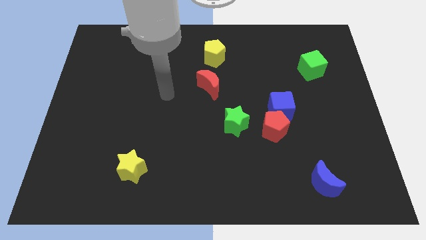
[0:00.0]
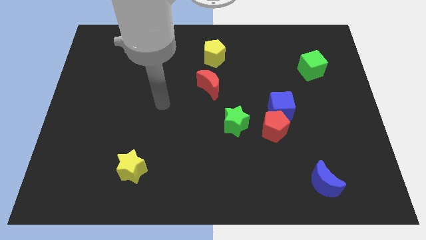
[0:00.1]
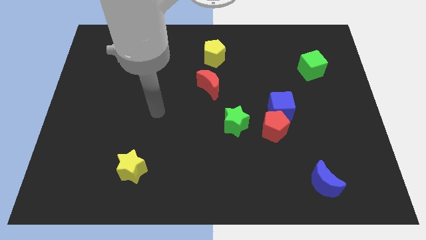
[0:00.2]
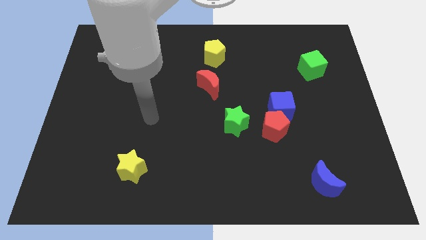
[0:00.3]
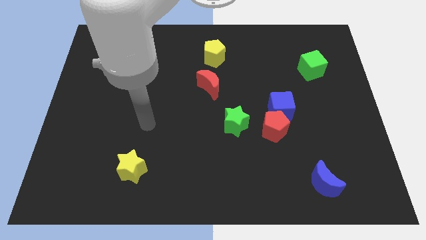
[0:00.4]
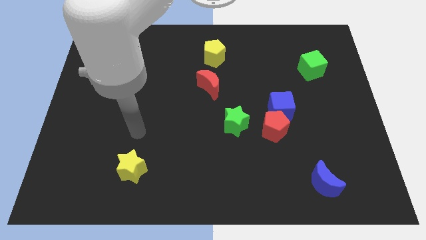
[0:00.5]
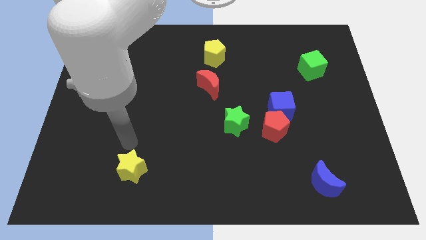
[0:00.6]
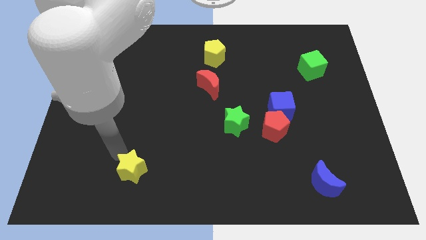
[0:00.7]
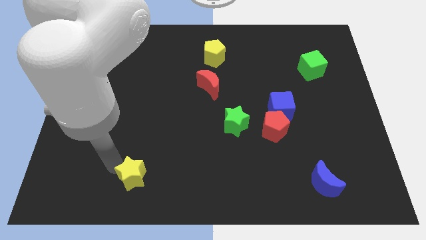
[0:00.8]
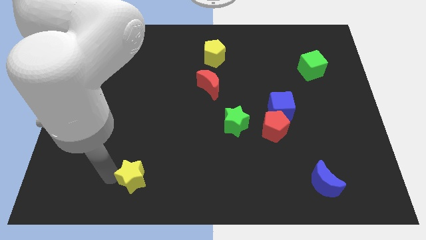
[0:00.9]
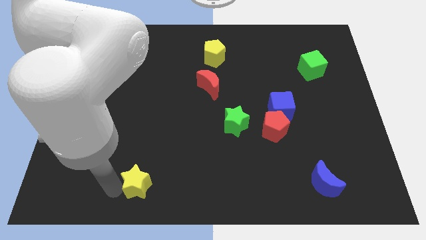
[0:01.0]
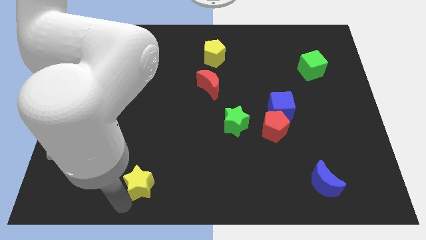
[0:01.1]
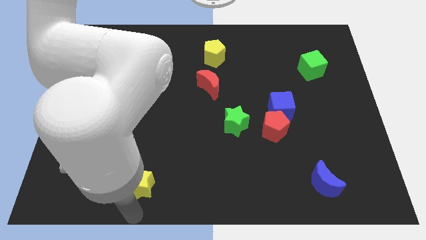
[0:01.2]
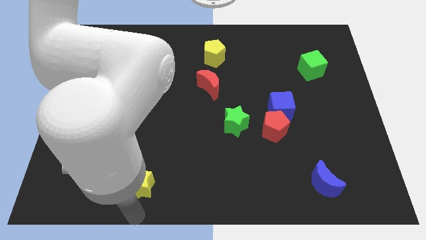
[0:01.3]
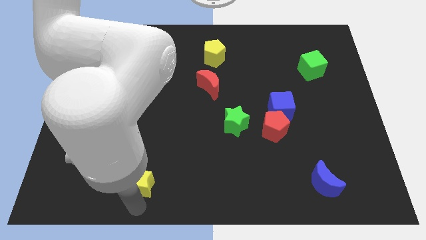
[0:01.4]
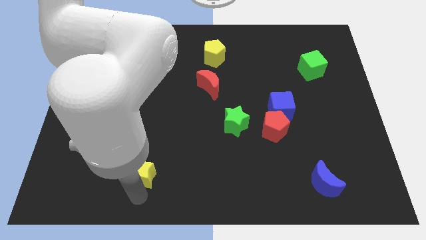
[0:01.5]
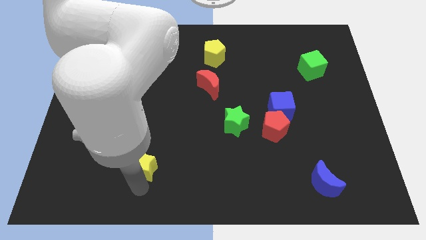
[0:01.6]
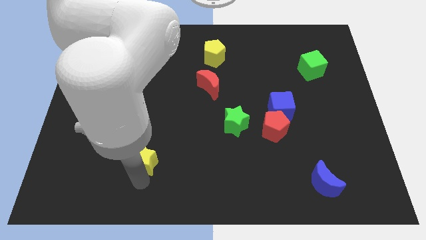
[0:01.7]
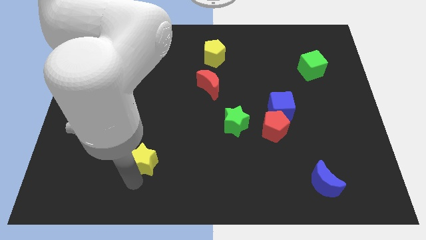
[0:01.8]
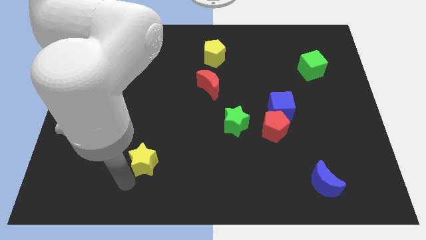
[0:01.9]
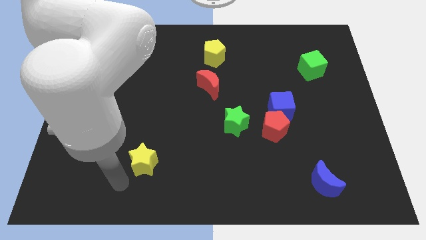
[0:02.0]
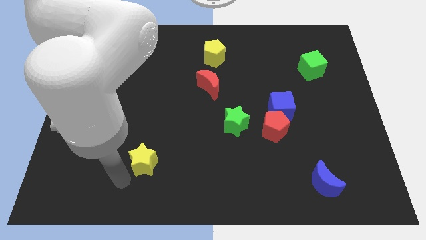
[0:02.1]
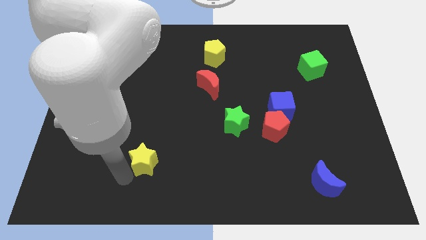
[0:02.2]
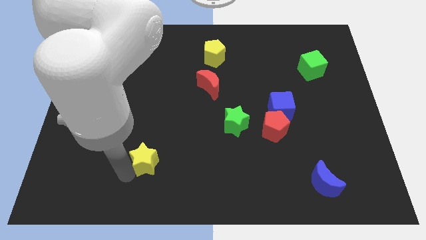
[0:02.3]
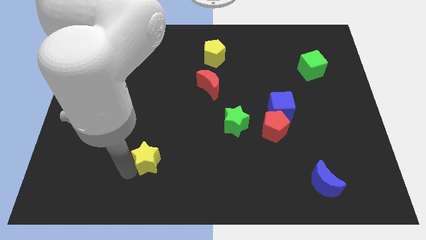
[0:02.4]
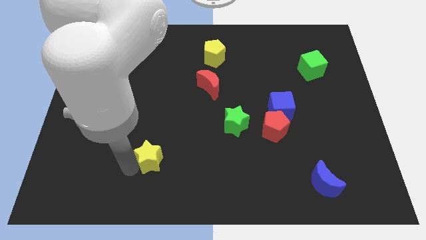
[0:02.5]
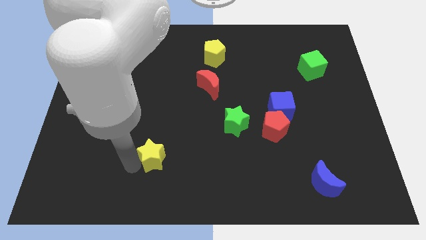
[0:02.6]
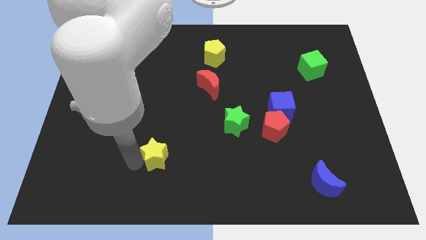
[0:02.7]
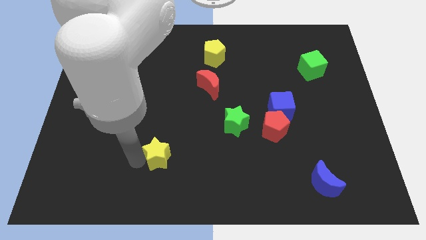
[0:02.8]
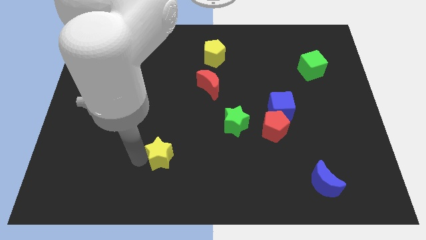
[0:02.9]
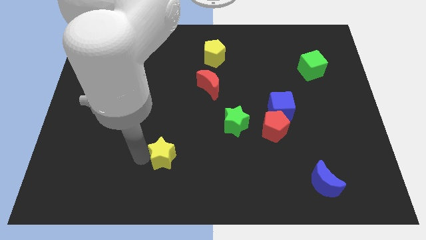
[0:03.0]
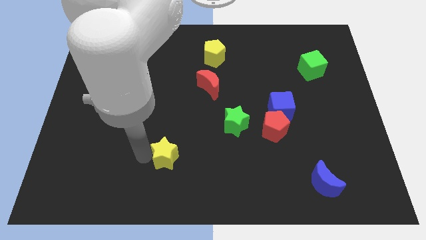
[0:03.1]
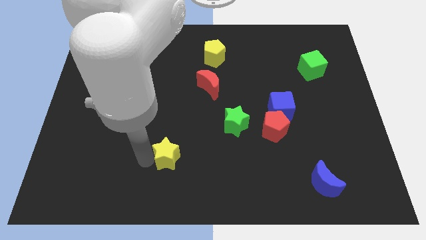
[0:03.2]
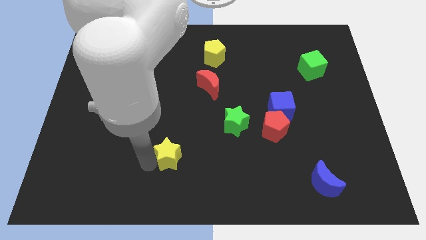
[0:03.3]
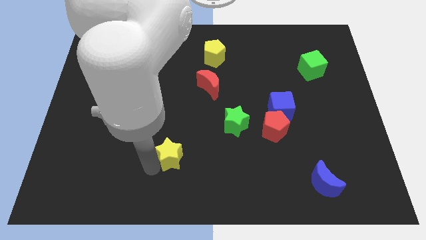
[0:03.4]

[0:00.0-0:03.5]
push the yellow star a little bit up and to the right diagonally

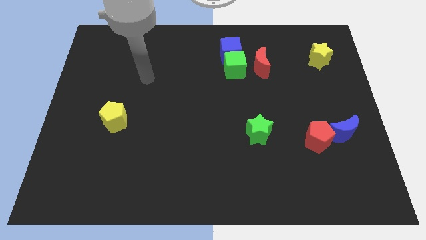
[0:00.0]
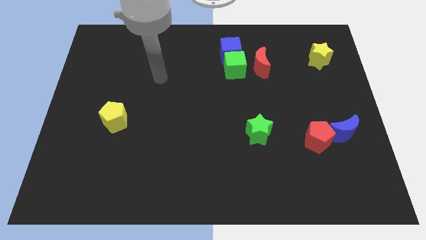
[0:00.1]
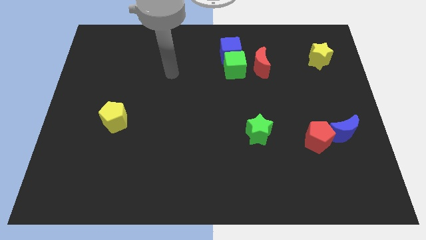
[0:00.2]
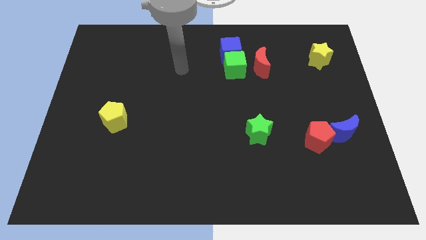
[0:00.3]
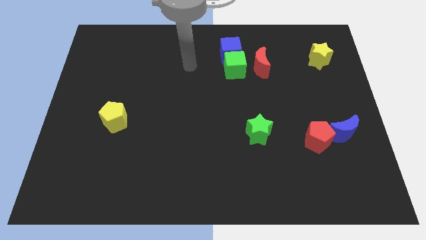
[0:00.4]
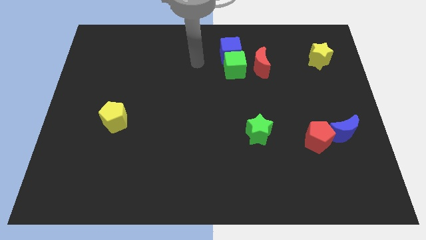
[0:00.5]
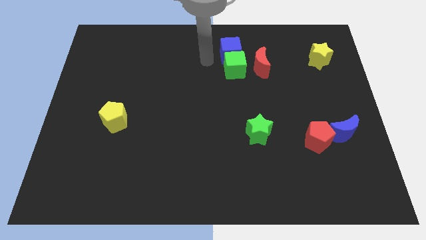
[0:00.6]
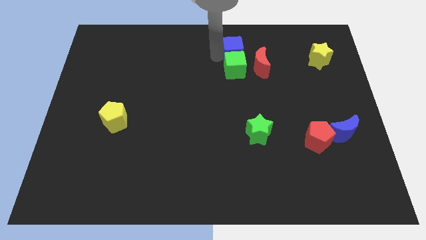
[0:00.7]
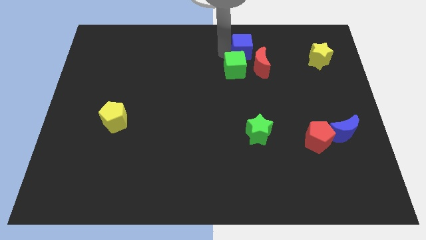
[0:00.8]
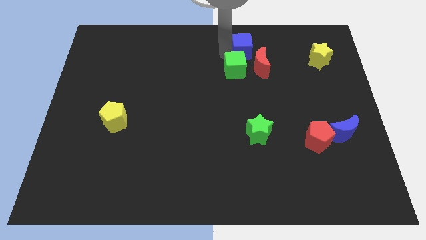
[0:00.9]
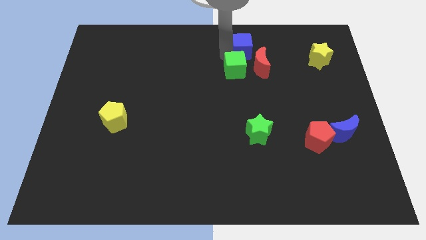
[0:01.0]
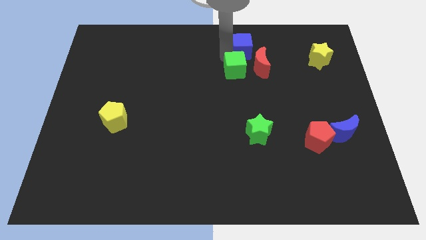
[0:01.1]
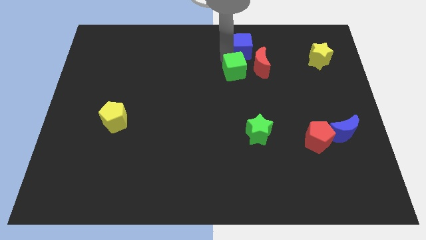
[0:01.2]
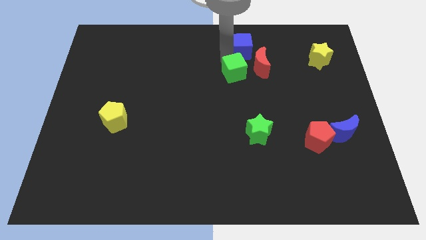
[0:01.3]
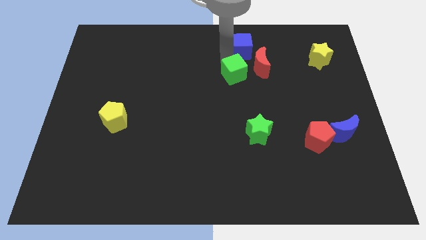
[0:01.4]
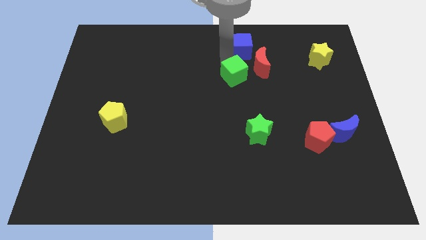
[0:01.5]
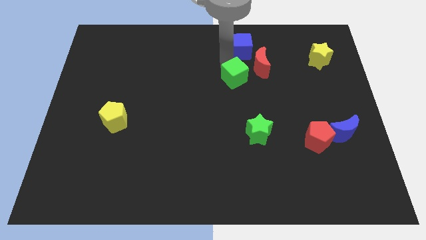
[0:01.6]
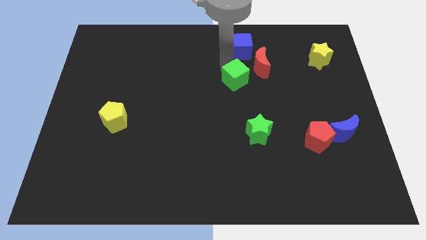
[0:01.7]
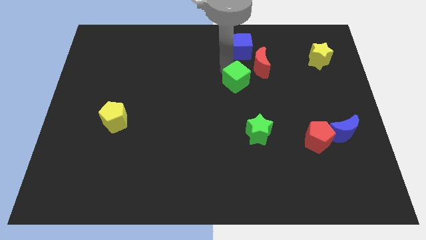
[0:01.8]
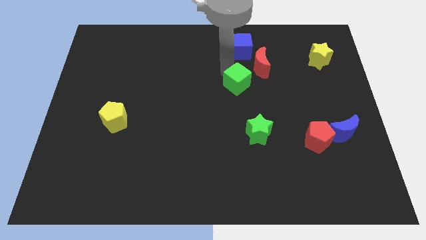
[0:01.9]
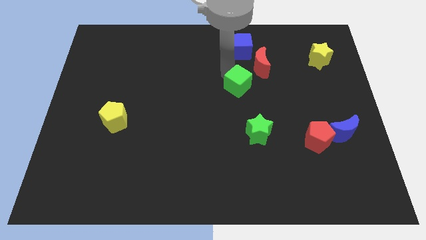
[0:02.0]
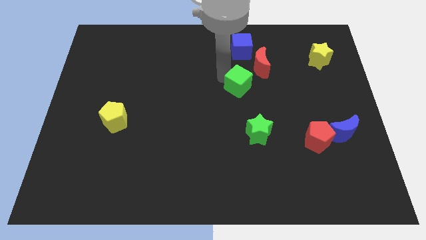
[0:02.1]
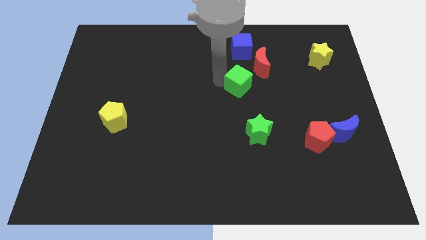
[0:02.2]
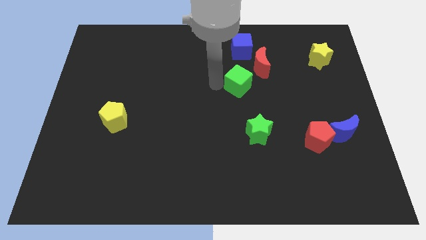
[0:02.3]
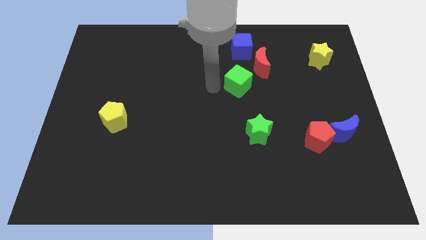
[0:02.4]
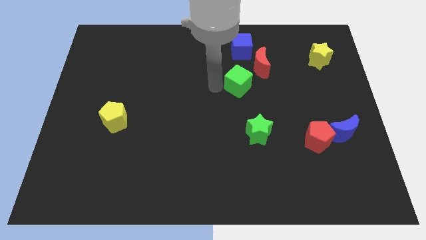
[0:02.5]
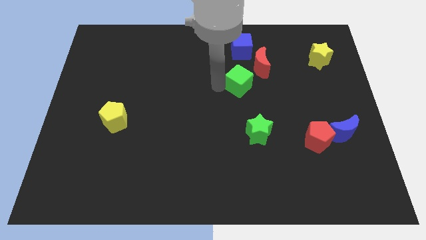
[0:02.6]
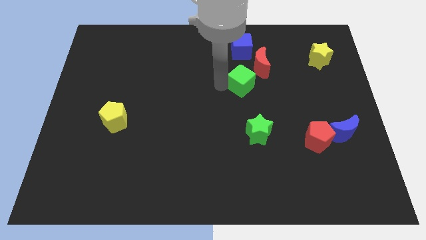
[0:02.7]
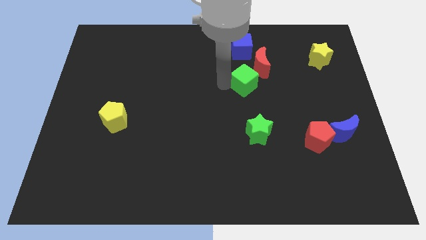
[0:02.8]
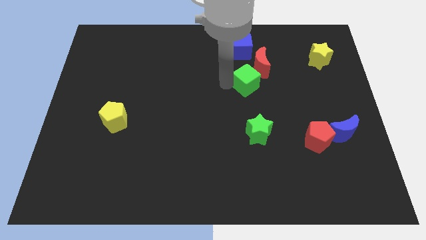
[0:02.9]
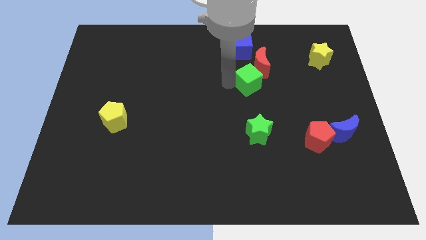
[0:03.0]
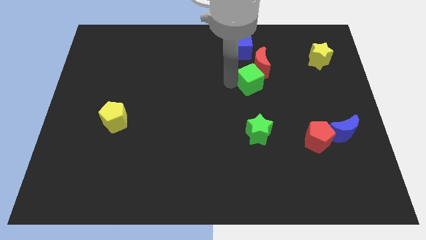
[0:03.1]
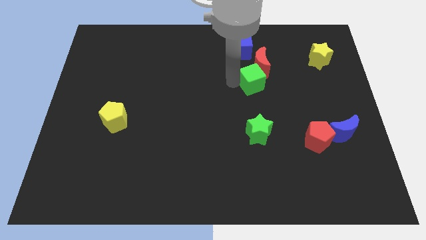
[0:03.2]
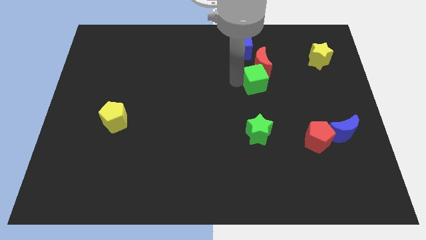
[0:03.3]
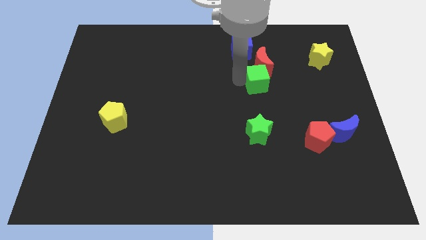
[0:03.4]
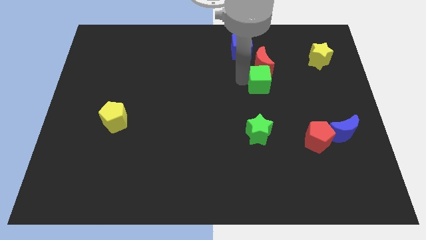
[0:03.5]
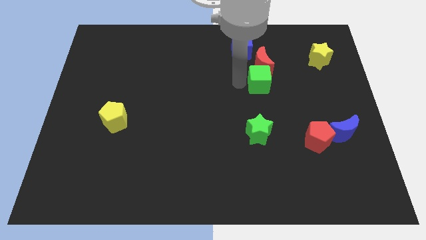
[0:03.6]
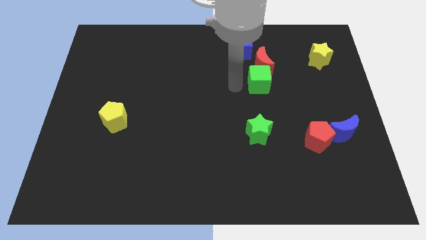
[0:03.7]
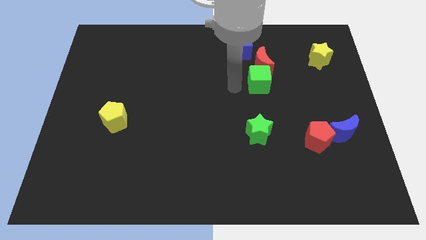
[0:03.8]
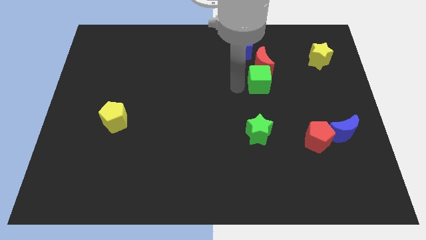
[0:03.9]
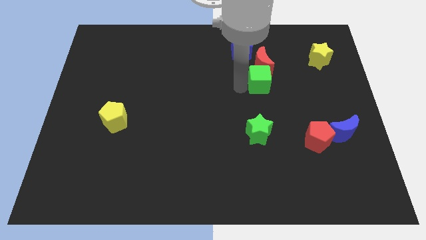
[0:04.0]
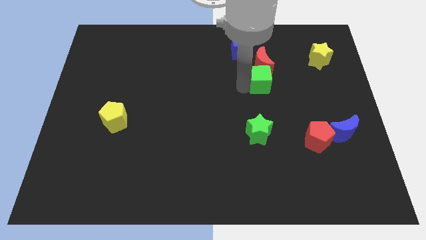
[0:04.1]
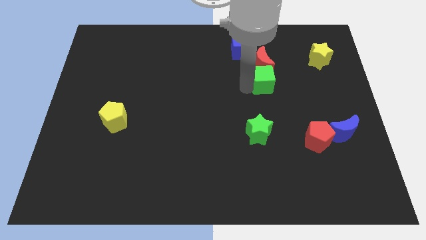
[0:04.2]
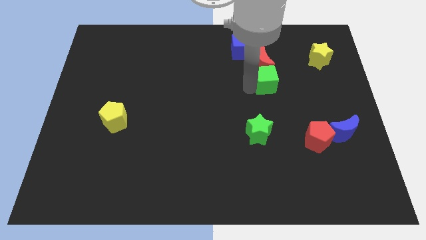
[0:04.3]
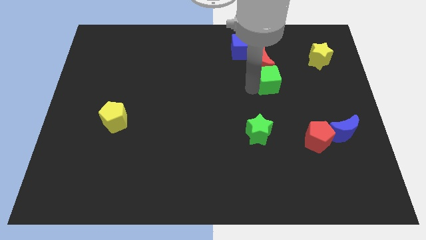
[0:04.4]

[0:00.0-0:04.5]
slightly slide the green cube to the right

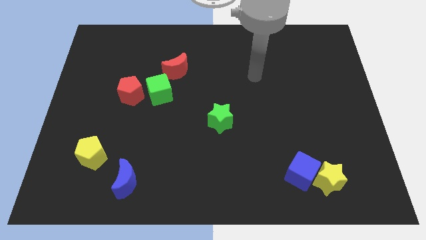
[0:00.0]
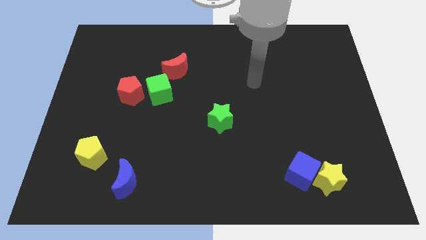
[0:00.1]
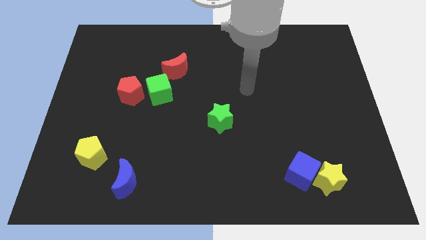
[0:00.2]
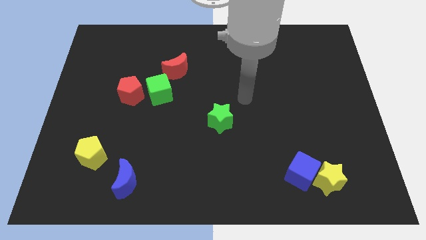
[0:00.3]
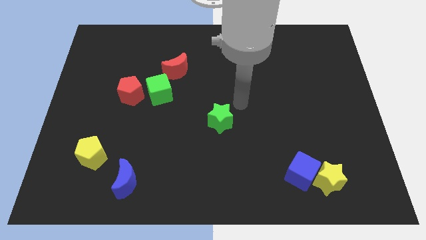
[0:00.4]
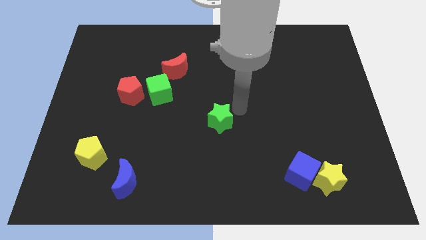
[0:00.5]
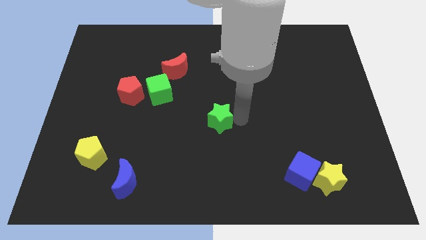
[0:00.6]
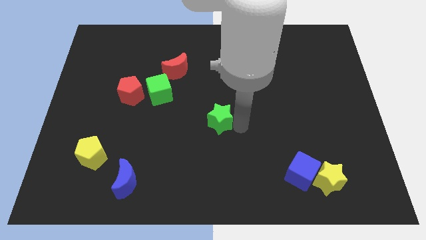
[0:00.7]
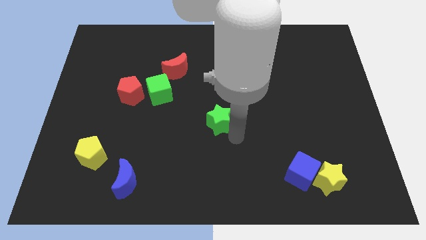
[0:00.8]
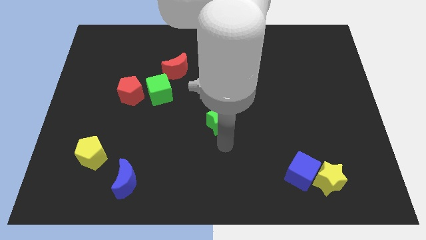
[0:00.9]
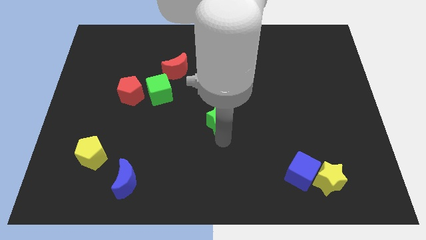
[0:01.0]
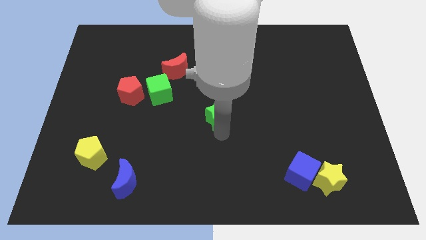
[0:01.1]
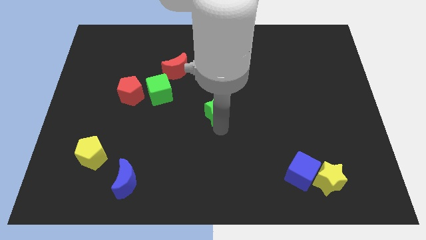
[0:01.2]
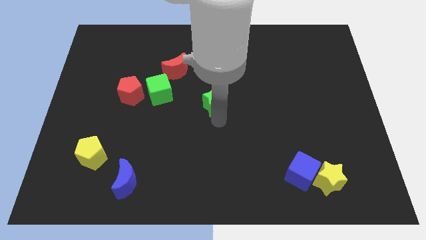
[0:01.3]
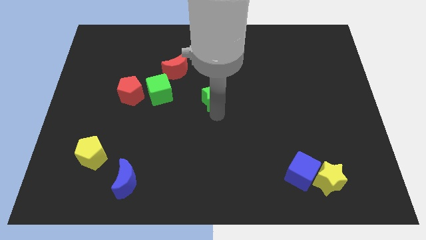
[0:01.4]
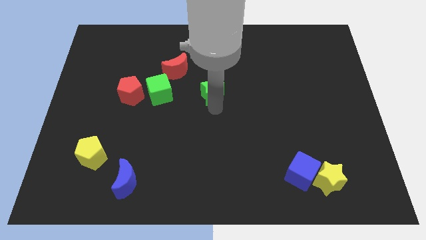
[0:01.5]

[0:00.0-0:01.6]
slightly slide the green star upwards
